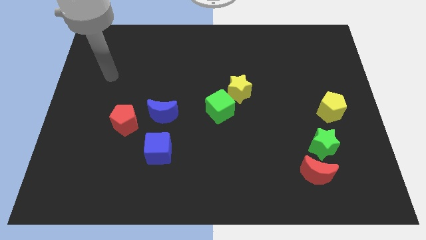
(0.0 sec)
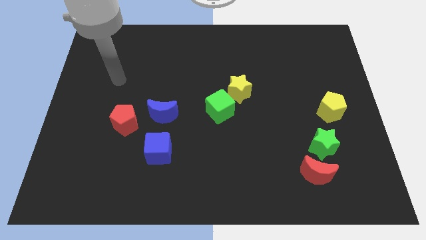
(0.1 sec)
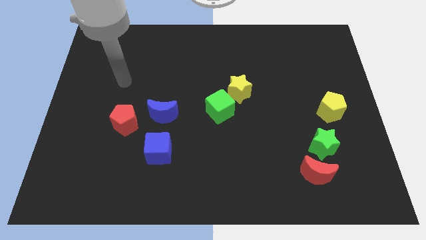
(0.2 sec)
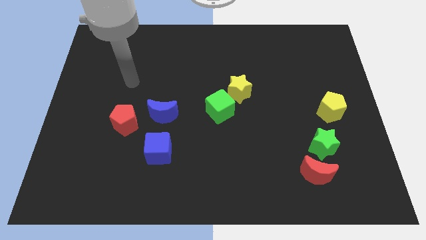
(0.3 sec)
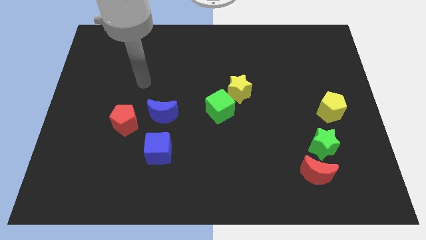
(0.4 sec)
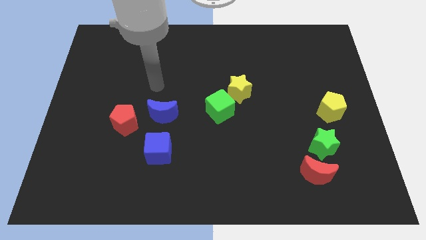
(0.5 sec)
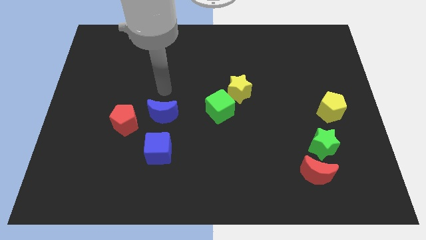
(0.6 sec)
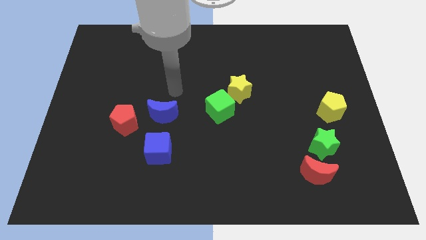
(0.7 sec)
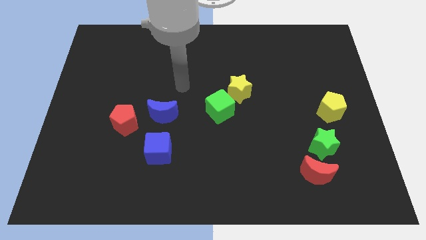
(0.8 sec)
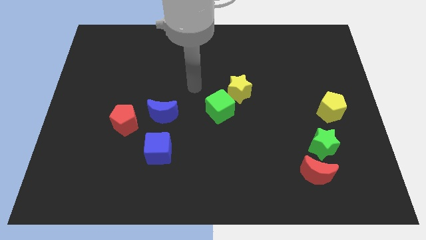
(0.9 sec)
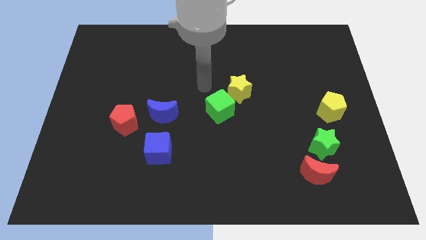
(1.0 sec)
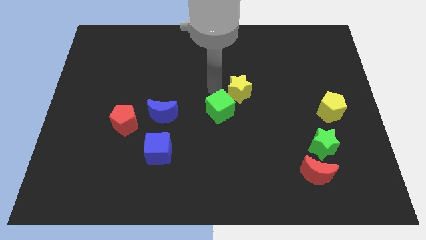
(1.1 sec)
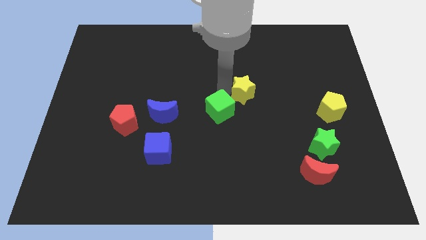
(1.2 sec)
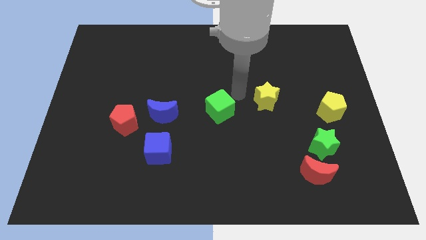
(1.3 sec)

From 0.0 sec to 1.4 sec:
separate the green cube from the yellow star

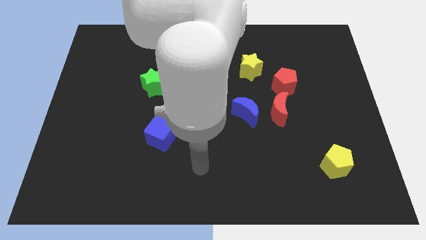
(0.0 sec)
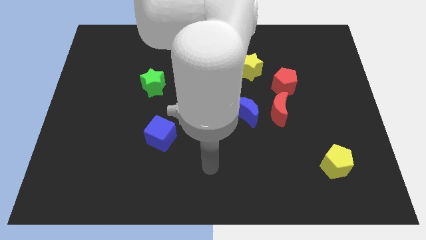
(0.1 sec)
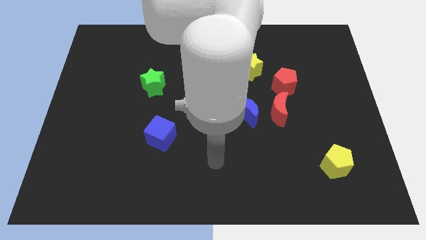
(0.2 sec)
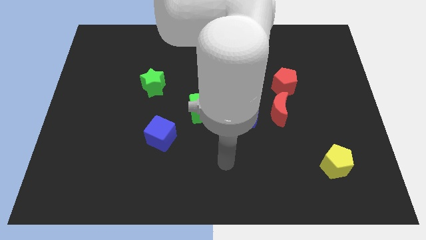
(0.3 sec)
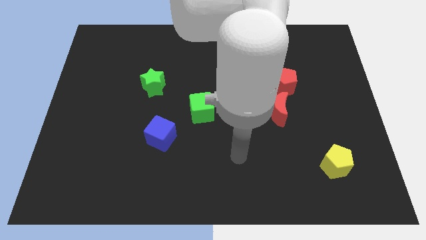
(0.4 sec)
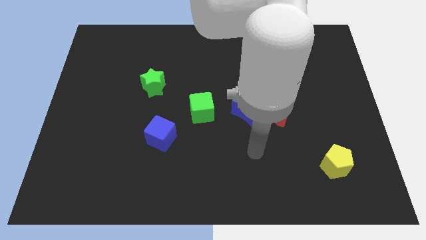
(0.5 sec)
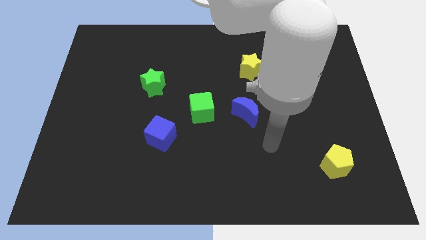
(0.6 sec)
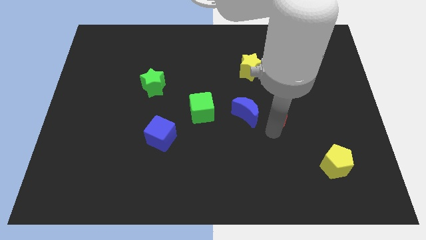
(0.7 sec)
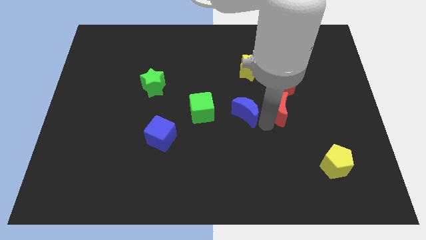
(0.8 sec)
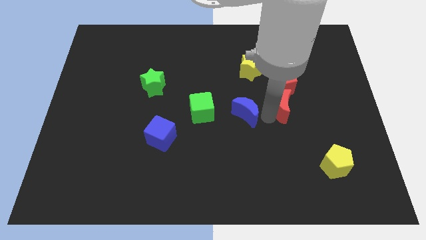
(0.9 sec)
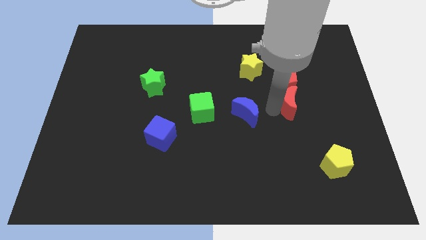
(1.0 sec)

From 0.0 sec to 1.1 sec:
separate the blue moon from the red moon

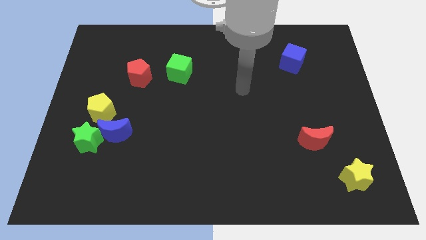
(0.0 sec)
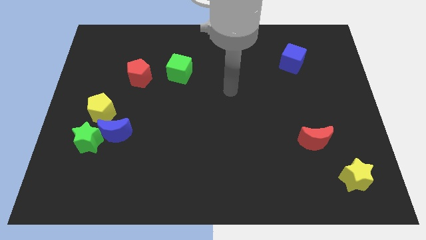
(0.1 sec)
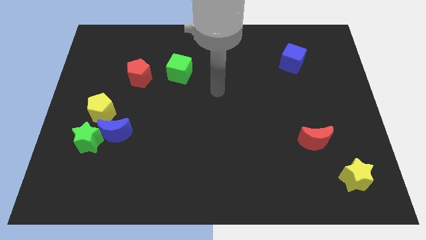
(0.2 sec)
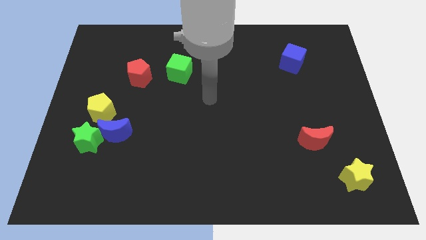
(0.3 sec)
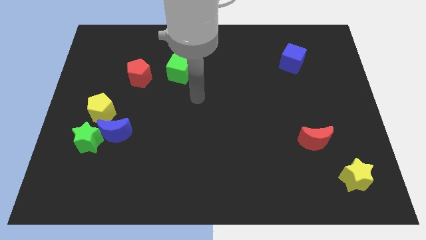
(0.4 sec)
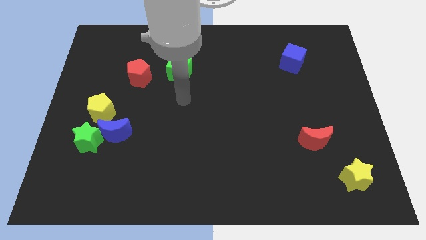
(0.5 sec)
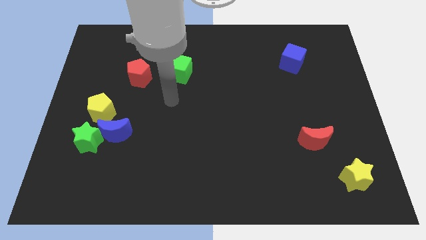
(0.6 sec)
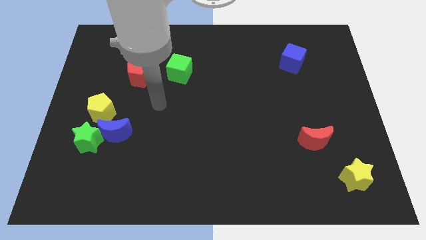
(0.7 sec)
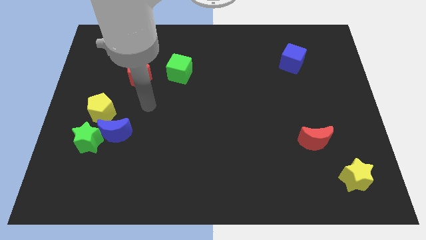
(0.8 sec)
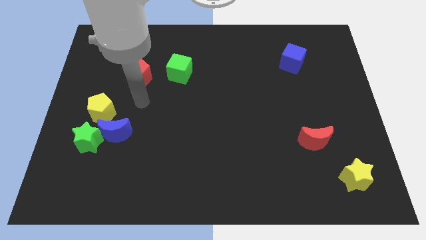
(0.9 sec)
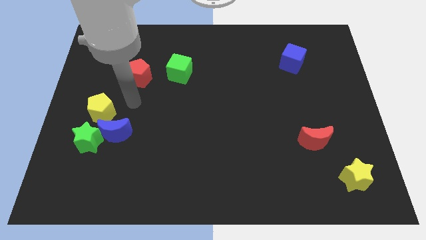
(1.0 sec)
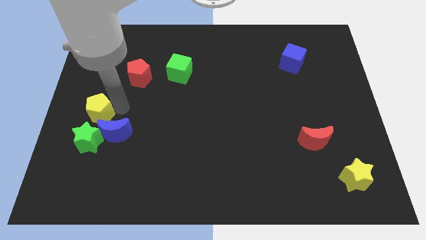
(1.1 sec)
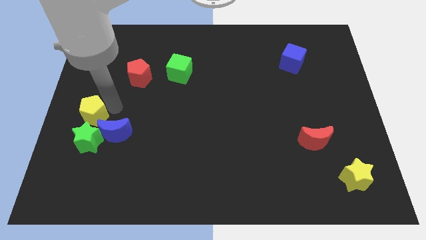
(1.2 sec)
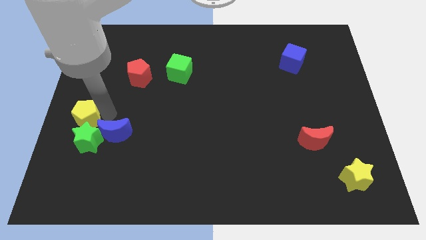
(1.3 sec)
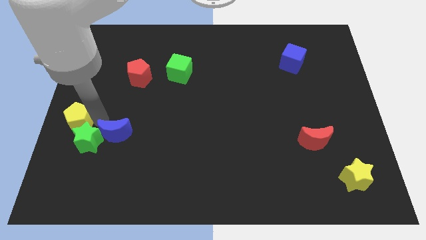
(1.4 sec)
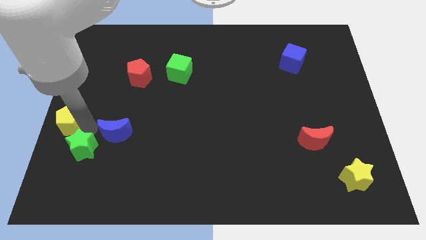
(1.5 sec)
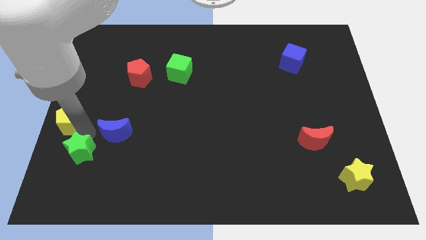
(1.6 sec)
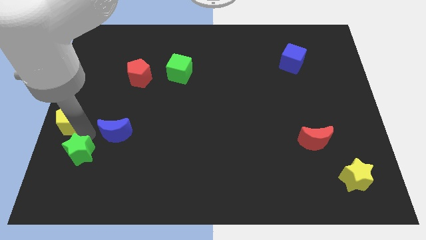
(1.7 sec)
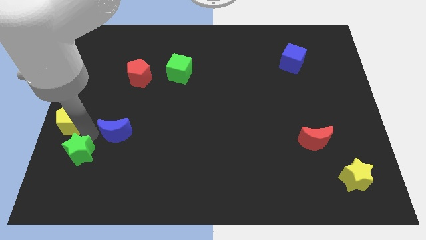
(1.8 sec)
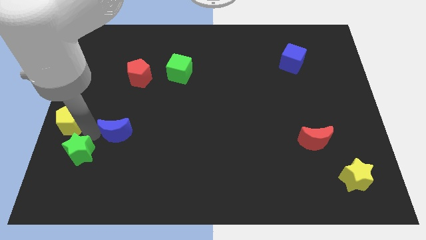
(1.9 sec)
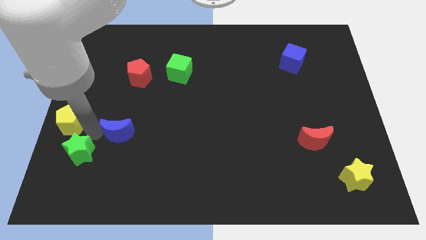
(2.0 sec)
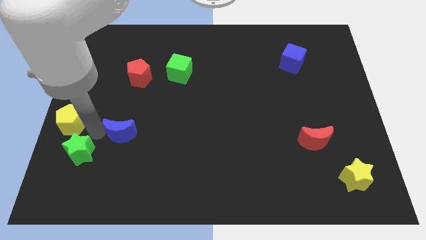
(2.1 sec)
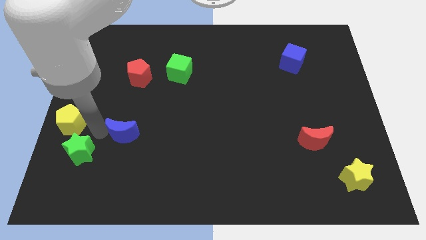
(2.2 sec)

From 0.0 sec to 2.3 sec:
separate the blue moon from the green star and yellow pentagon

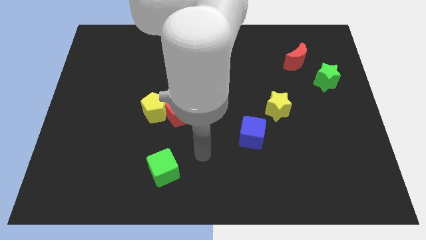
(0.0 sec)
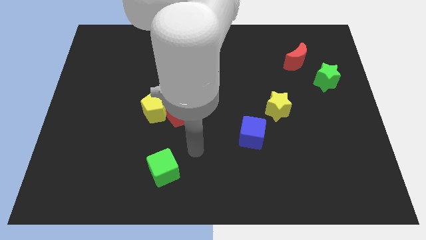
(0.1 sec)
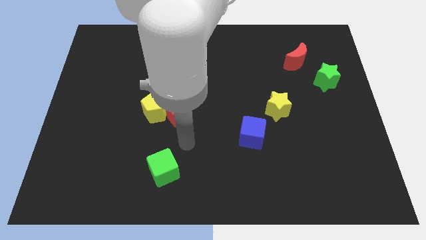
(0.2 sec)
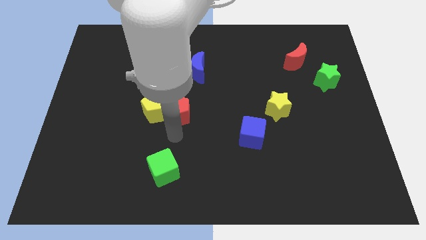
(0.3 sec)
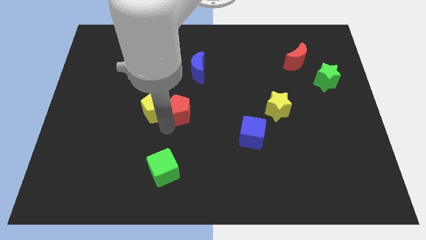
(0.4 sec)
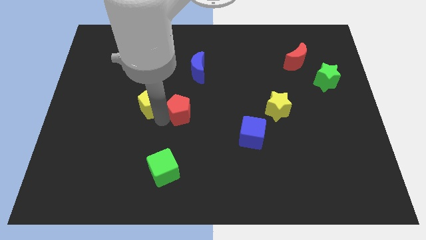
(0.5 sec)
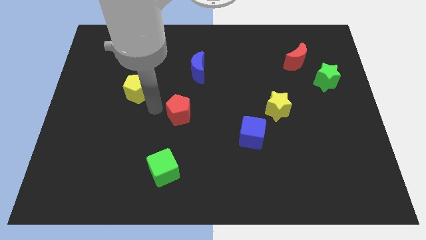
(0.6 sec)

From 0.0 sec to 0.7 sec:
separate the red pentagon from the yellow pentagon

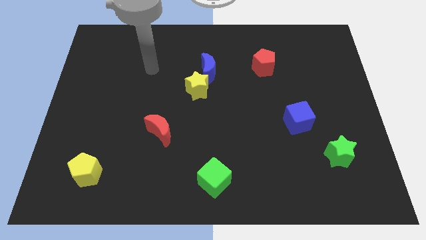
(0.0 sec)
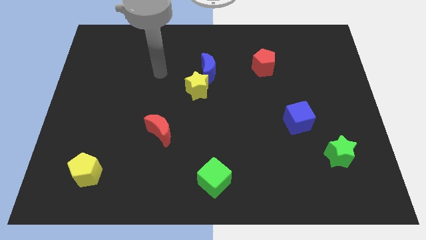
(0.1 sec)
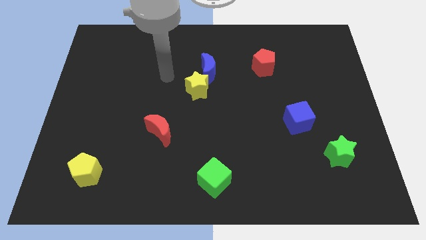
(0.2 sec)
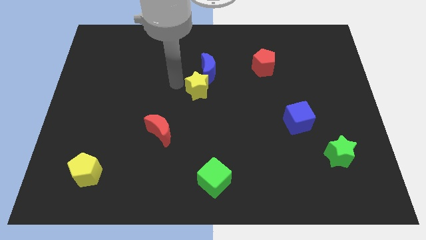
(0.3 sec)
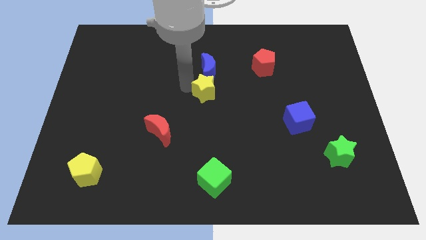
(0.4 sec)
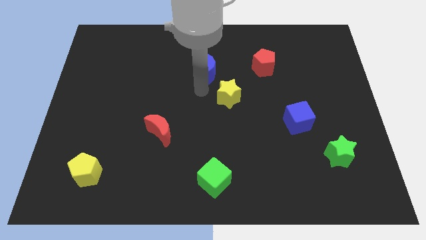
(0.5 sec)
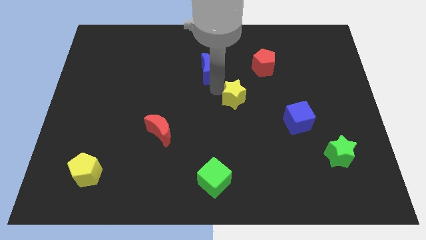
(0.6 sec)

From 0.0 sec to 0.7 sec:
separate the blue moon from the yellow star

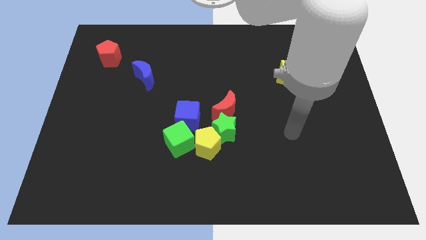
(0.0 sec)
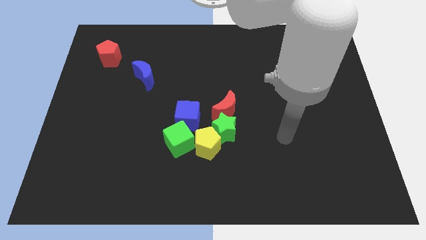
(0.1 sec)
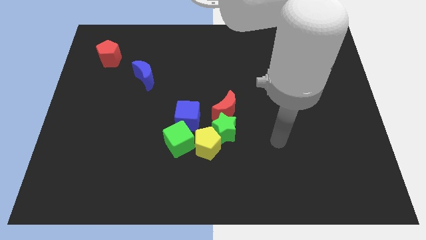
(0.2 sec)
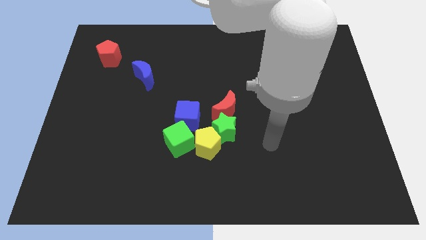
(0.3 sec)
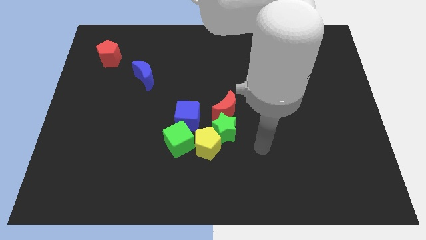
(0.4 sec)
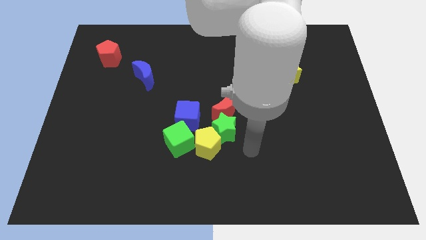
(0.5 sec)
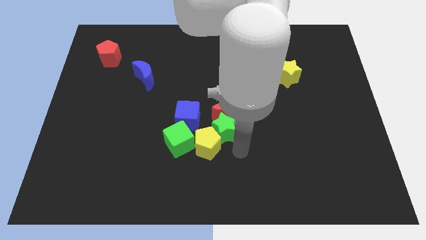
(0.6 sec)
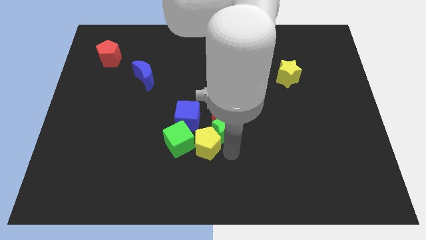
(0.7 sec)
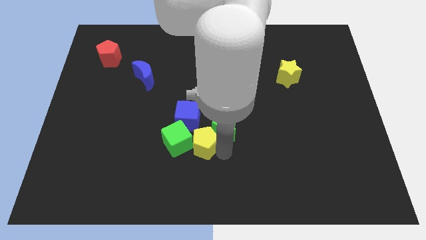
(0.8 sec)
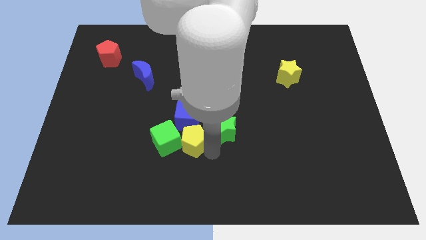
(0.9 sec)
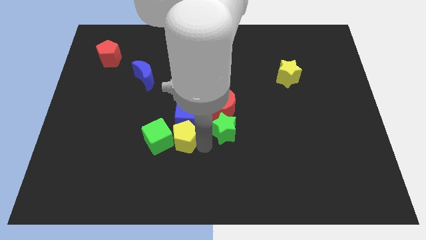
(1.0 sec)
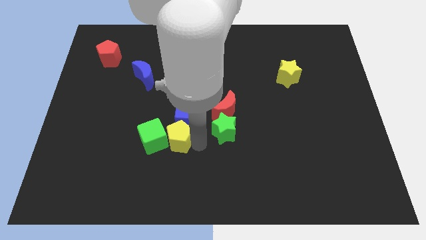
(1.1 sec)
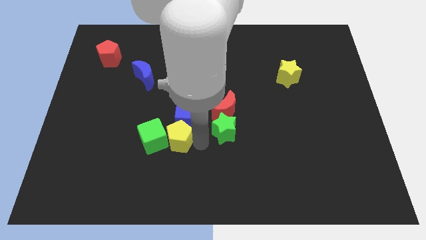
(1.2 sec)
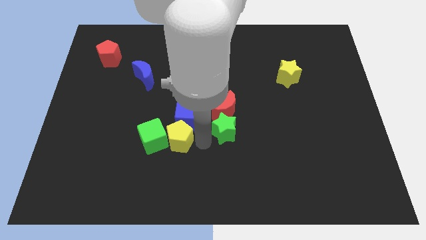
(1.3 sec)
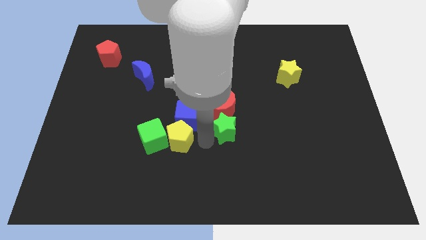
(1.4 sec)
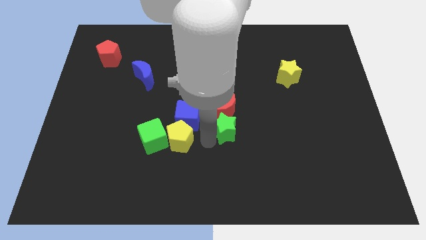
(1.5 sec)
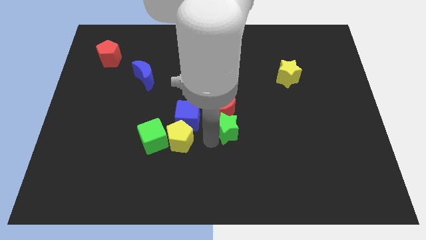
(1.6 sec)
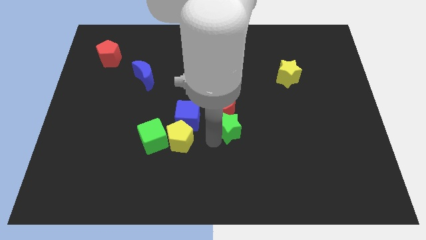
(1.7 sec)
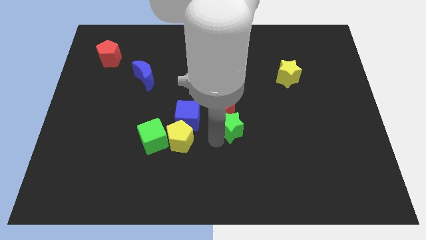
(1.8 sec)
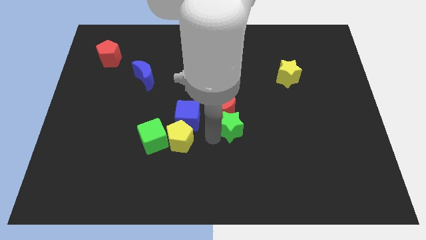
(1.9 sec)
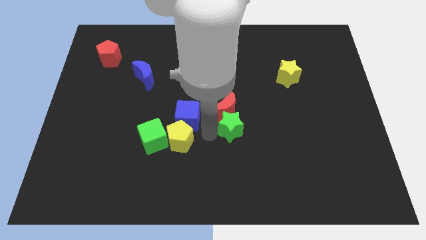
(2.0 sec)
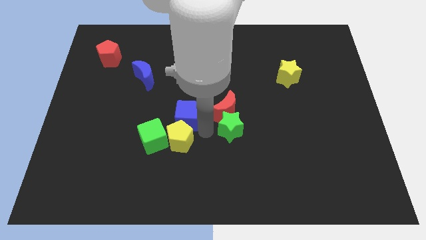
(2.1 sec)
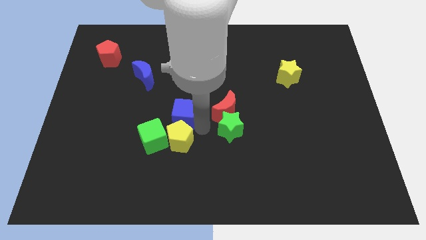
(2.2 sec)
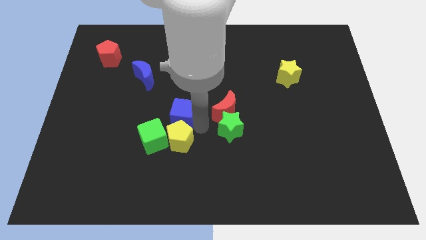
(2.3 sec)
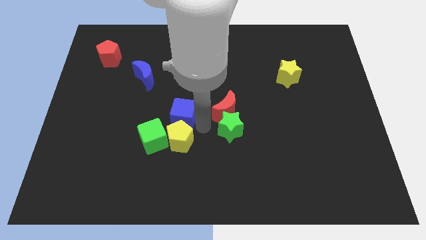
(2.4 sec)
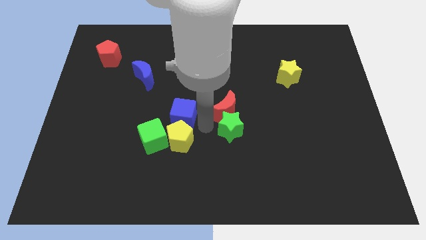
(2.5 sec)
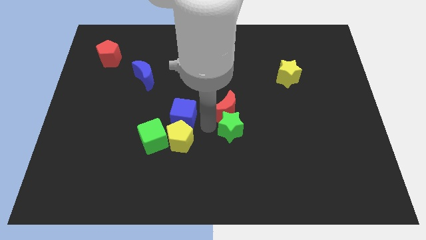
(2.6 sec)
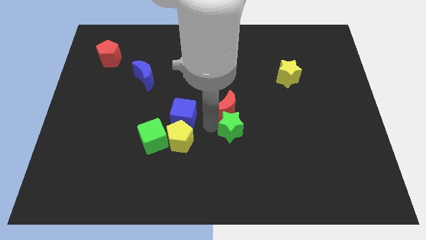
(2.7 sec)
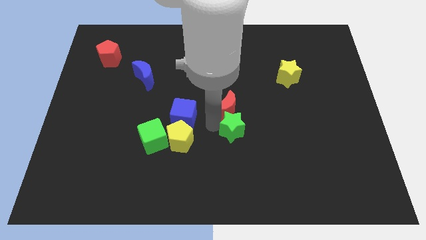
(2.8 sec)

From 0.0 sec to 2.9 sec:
move the green star away from the clump
